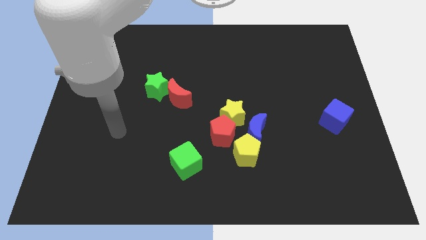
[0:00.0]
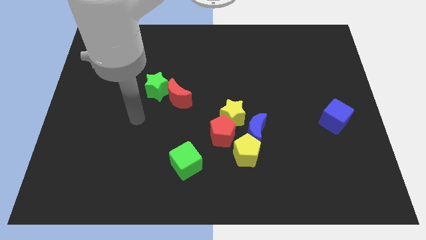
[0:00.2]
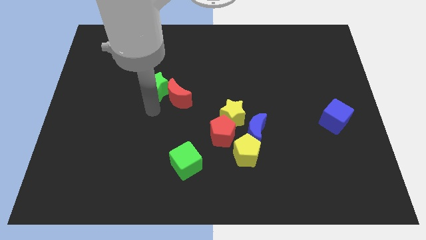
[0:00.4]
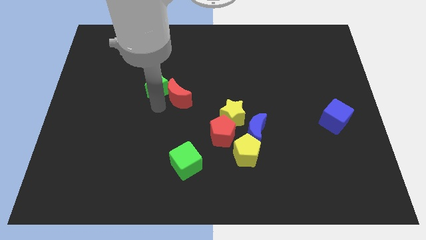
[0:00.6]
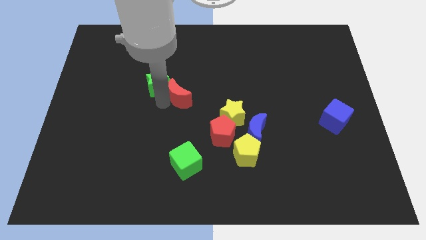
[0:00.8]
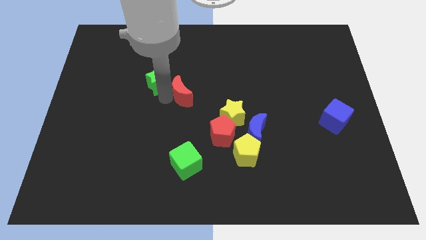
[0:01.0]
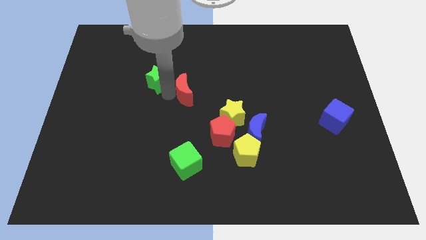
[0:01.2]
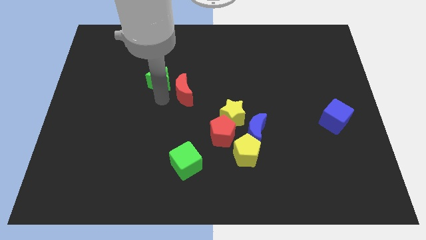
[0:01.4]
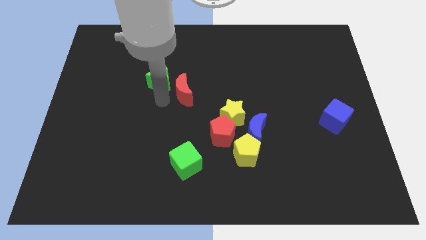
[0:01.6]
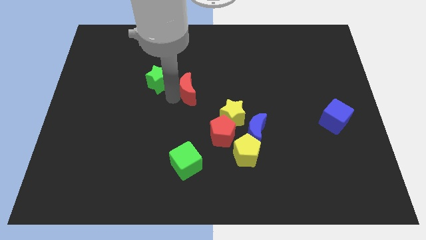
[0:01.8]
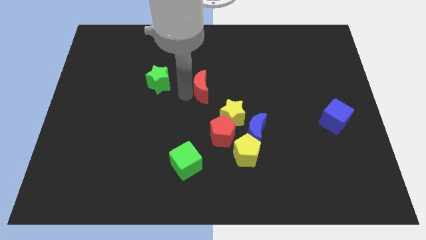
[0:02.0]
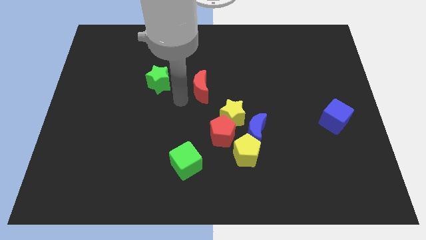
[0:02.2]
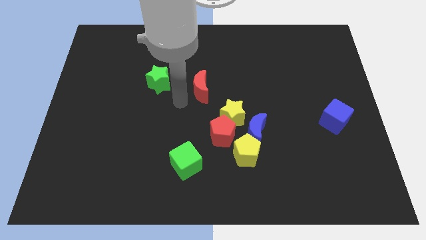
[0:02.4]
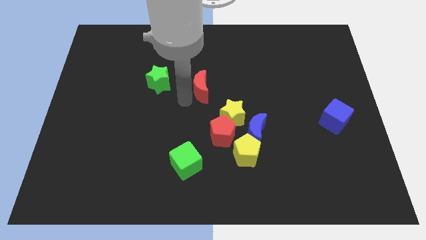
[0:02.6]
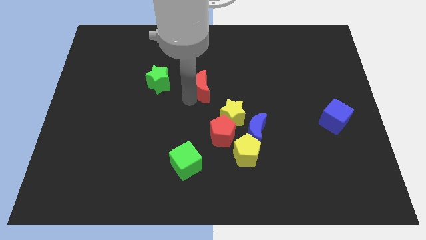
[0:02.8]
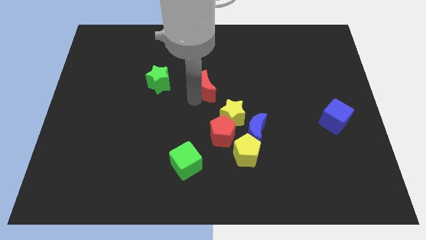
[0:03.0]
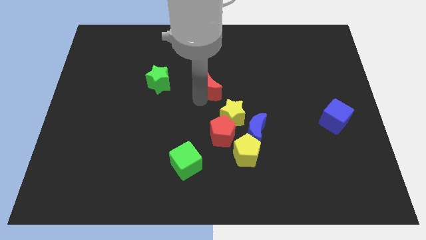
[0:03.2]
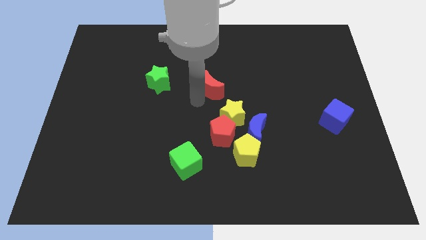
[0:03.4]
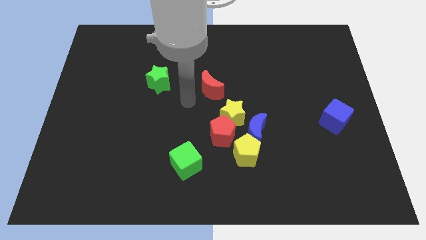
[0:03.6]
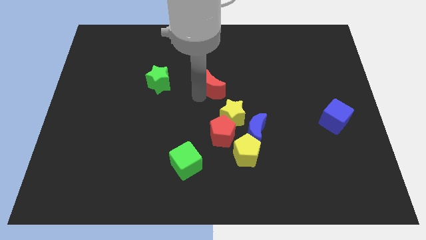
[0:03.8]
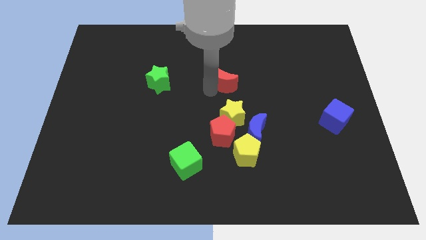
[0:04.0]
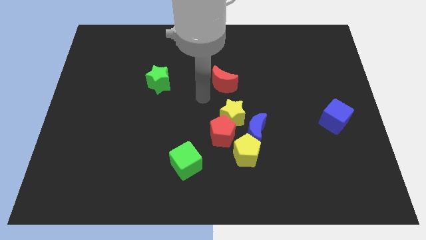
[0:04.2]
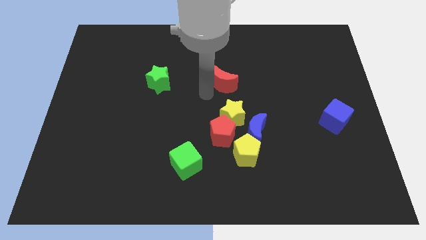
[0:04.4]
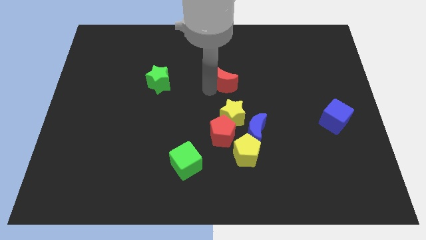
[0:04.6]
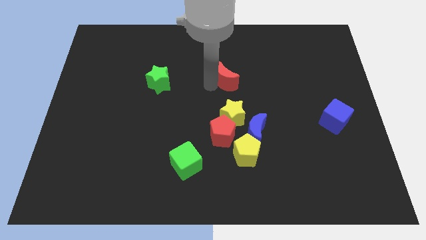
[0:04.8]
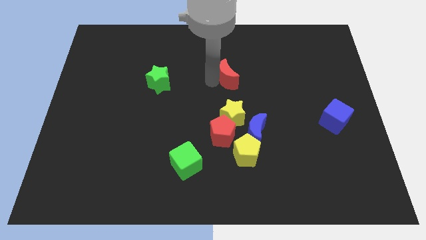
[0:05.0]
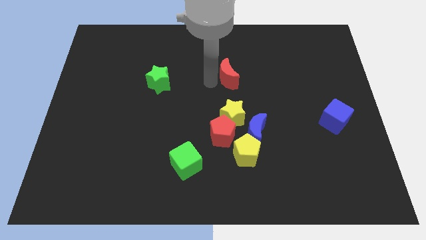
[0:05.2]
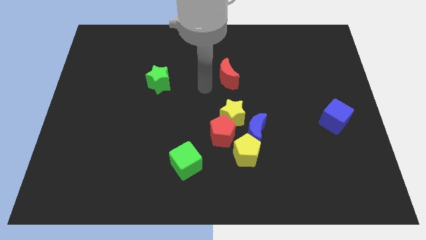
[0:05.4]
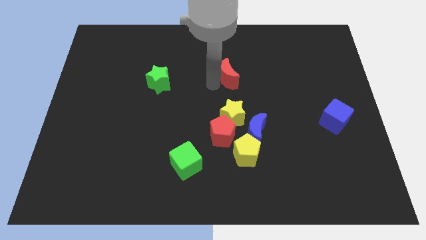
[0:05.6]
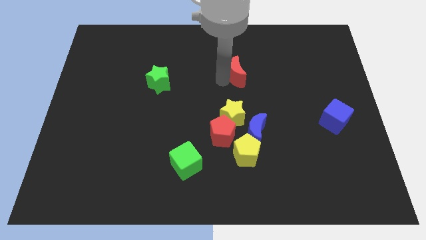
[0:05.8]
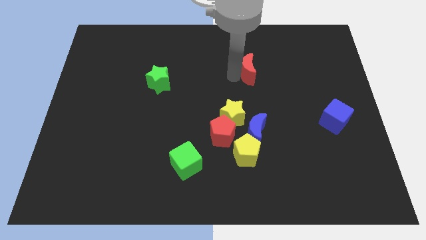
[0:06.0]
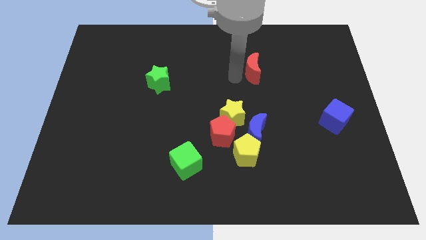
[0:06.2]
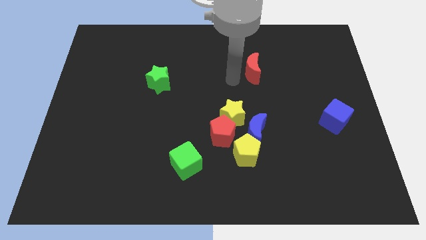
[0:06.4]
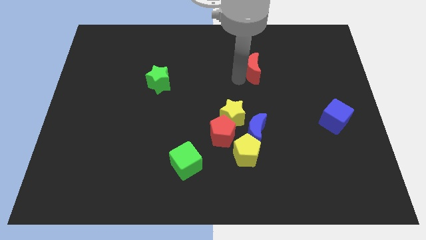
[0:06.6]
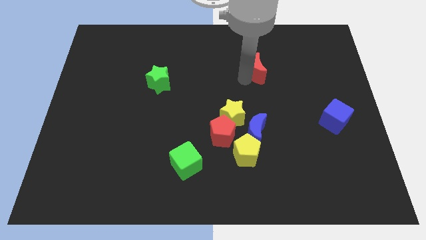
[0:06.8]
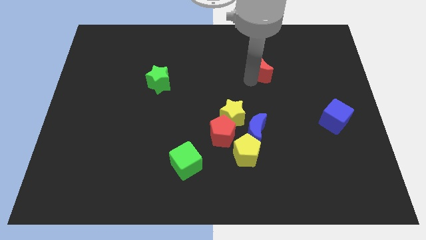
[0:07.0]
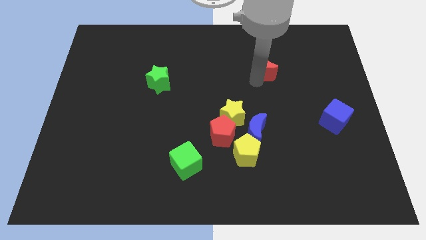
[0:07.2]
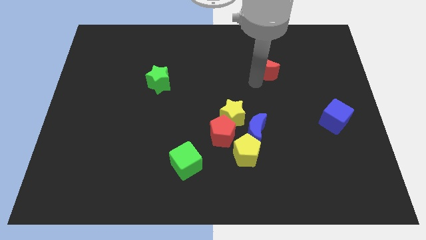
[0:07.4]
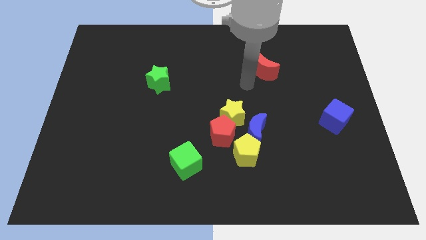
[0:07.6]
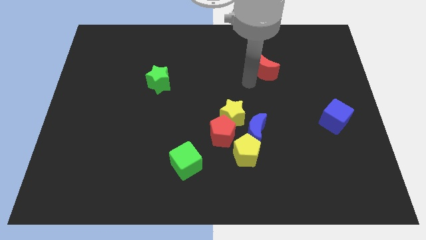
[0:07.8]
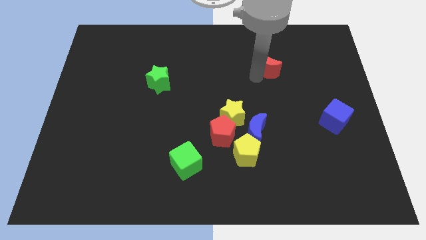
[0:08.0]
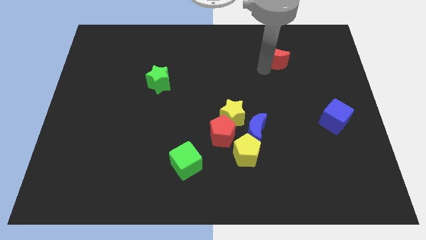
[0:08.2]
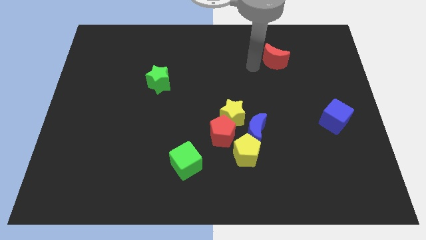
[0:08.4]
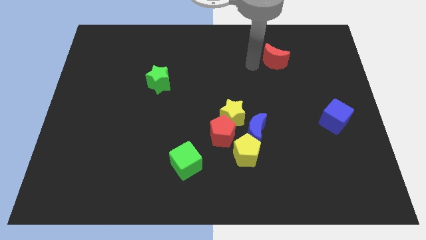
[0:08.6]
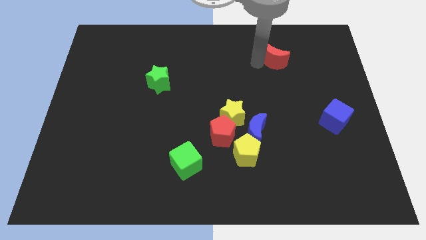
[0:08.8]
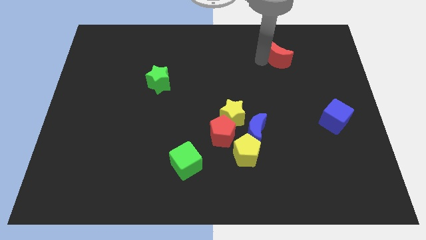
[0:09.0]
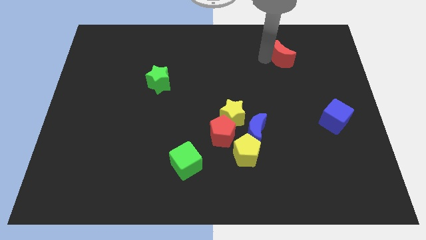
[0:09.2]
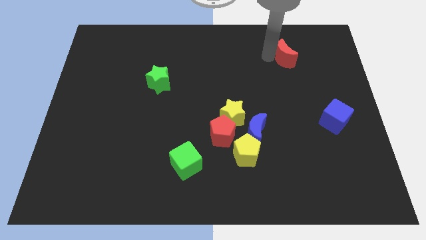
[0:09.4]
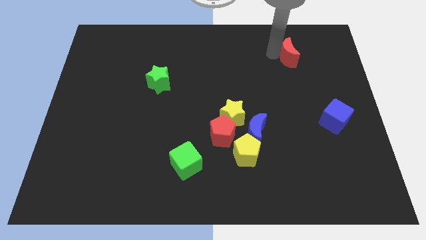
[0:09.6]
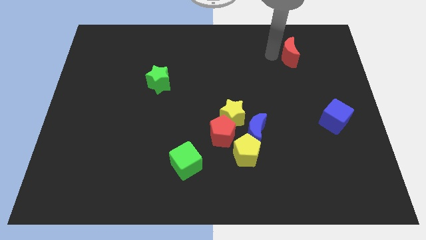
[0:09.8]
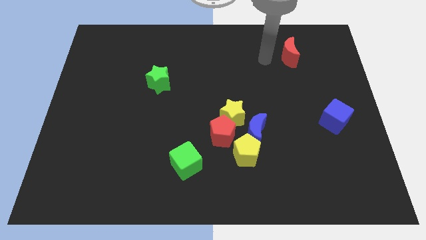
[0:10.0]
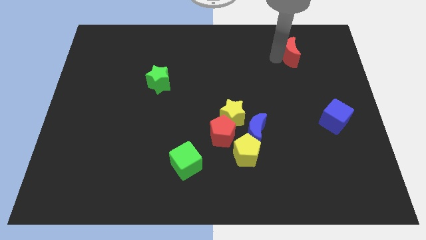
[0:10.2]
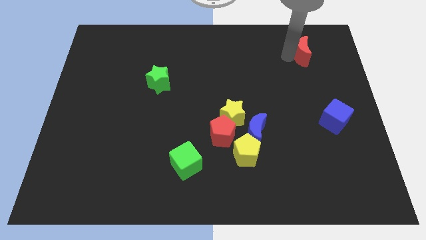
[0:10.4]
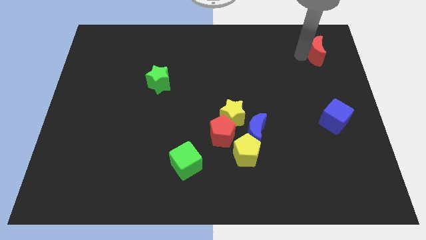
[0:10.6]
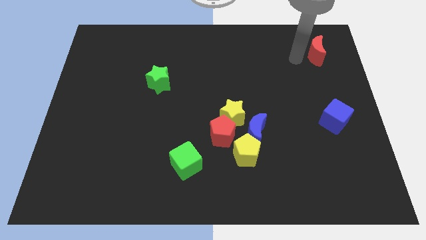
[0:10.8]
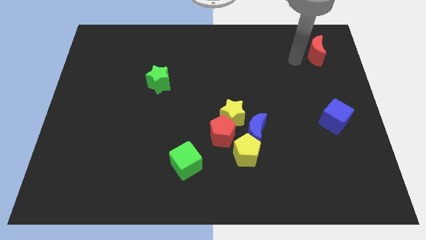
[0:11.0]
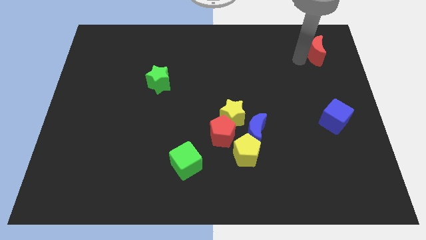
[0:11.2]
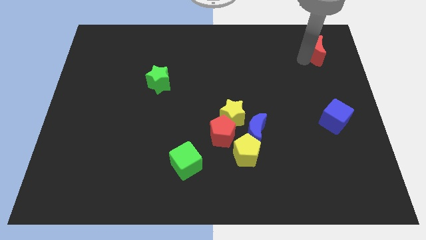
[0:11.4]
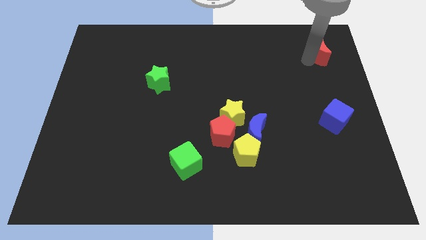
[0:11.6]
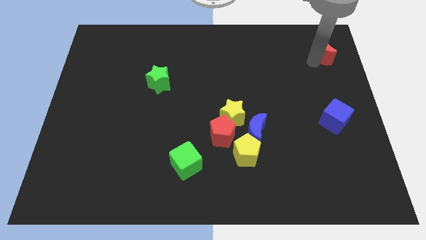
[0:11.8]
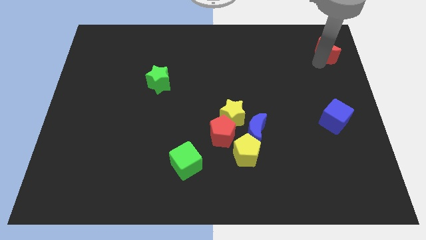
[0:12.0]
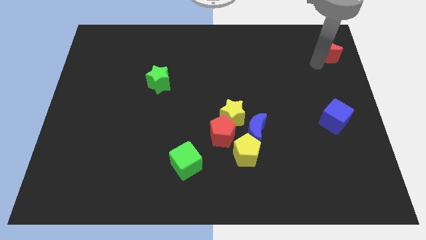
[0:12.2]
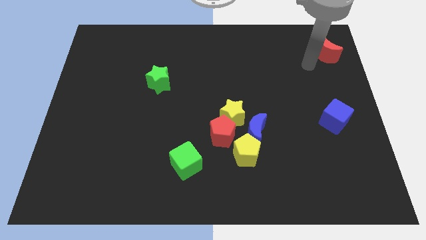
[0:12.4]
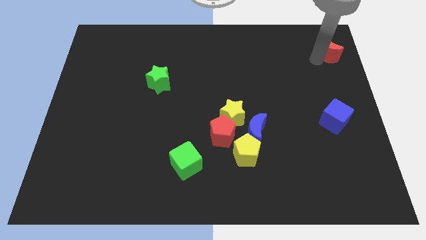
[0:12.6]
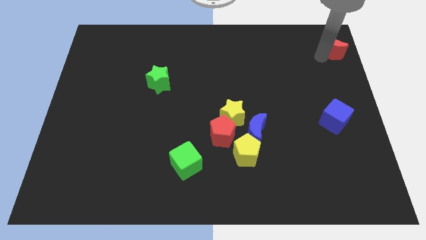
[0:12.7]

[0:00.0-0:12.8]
push the red moon to the top right of the board
